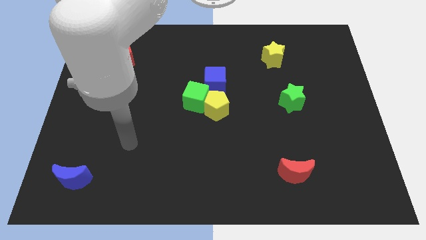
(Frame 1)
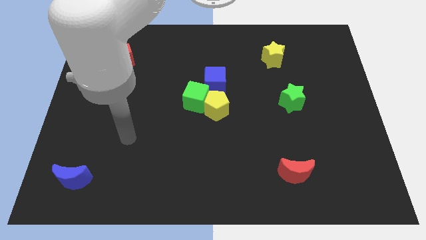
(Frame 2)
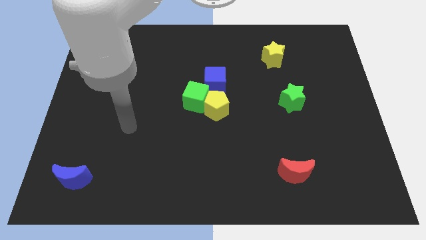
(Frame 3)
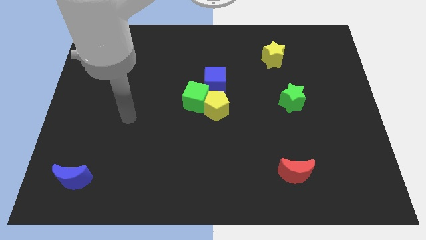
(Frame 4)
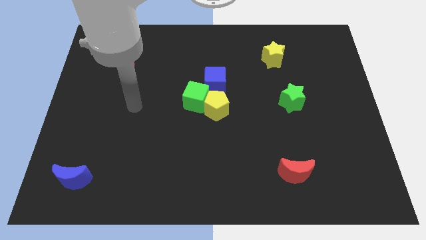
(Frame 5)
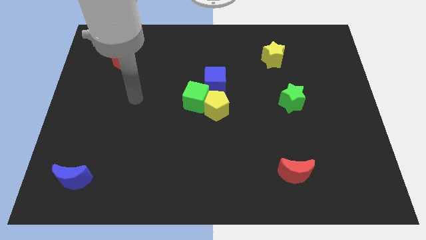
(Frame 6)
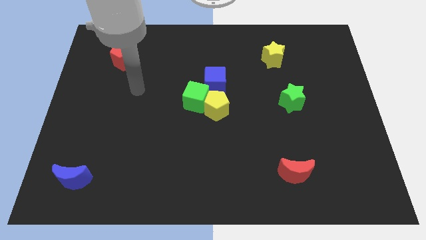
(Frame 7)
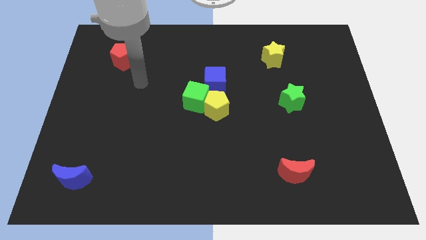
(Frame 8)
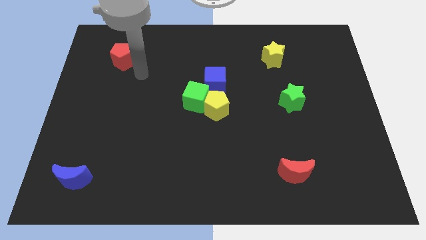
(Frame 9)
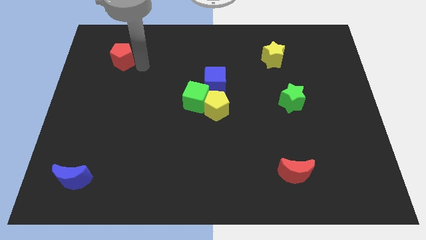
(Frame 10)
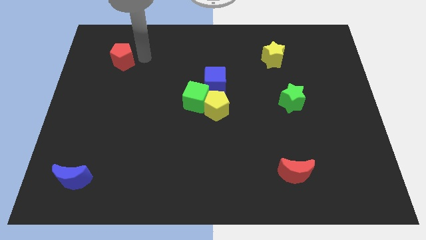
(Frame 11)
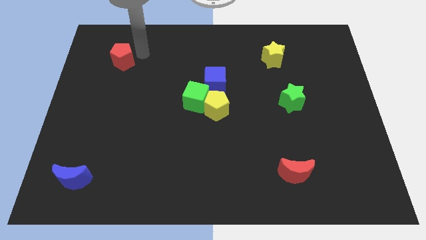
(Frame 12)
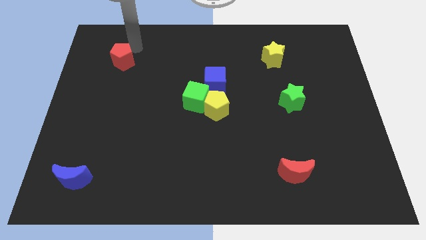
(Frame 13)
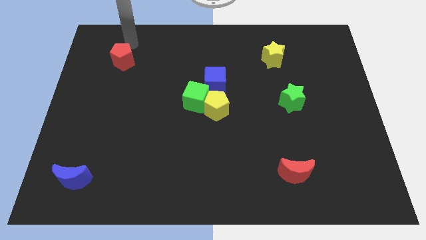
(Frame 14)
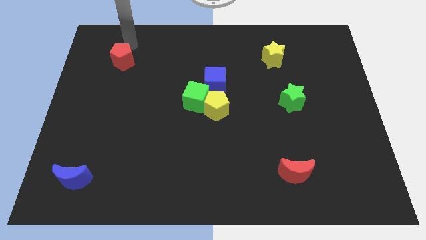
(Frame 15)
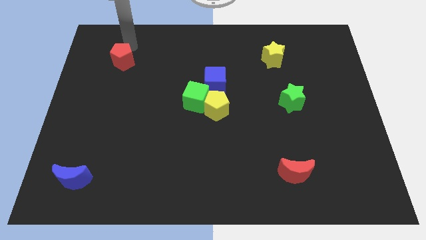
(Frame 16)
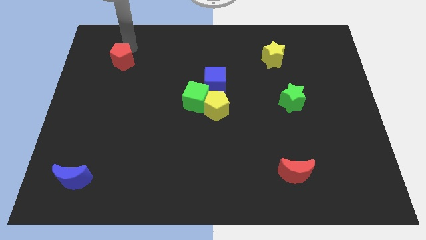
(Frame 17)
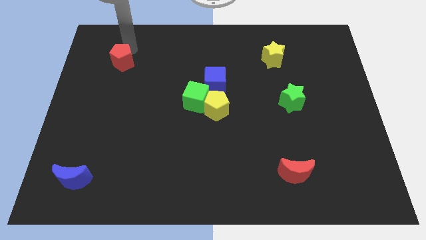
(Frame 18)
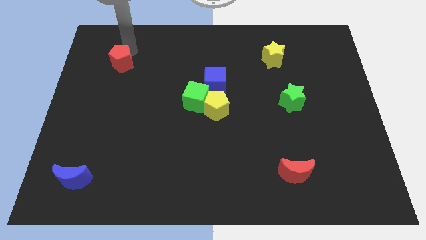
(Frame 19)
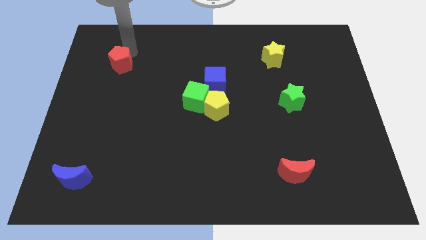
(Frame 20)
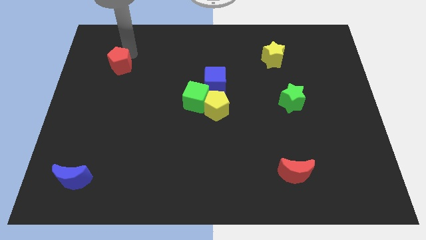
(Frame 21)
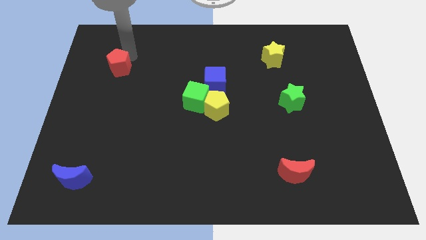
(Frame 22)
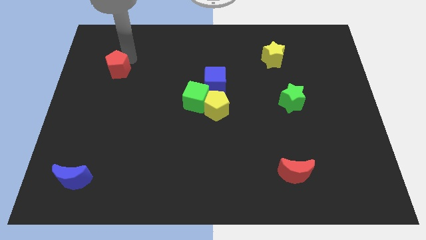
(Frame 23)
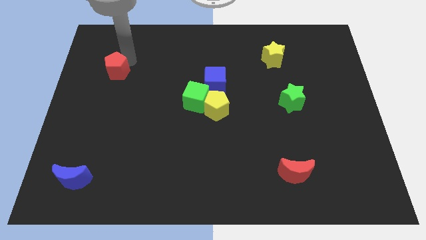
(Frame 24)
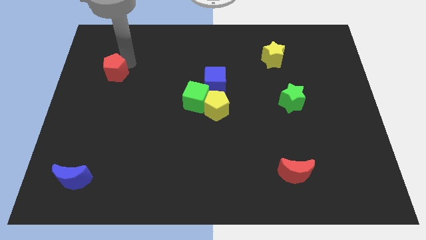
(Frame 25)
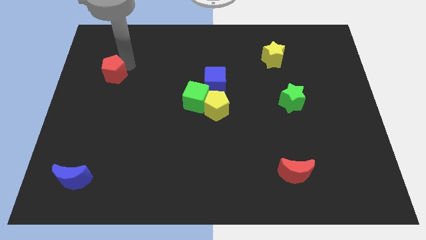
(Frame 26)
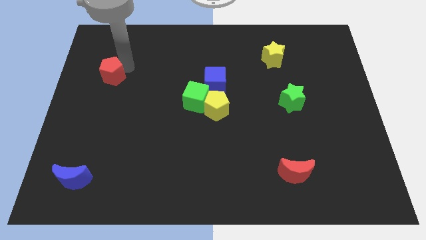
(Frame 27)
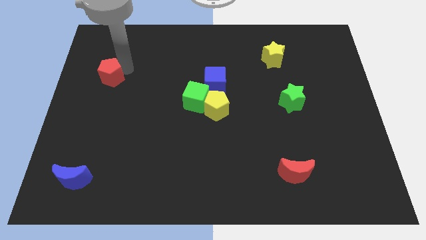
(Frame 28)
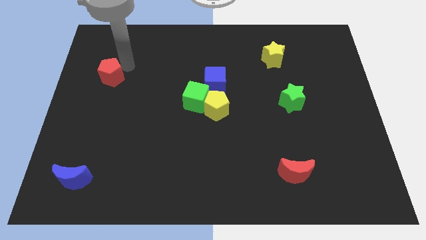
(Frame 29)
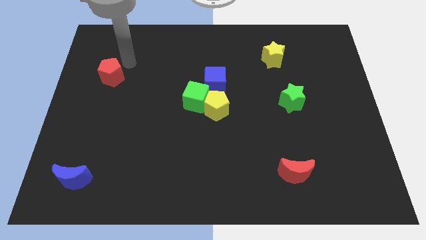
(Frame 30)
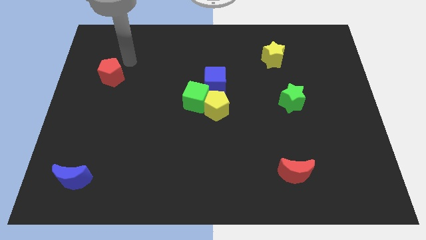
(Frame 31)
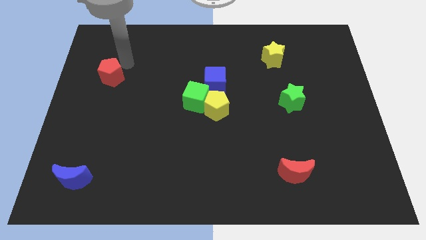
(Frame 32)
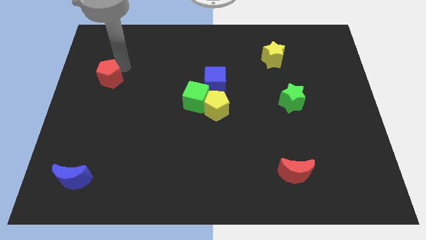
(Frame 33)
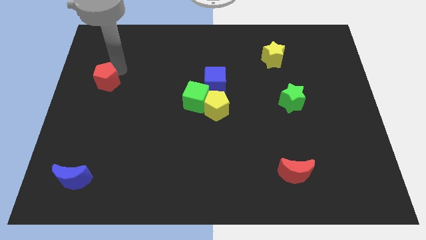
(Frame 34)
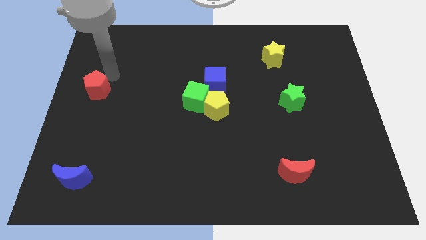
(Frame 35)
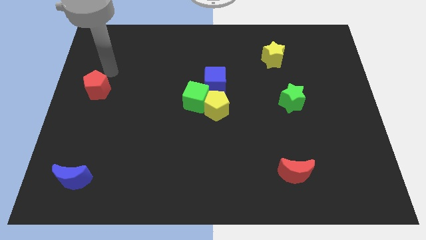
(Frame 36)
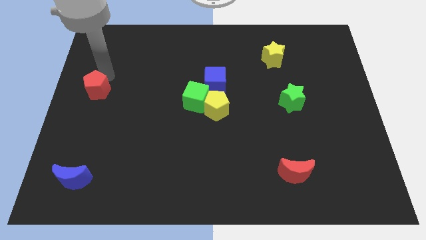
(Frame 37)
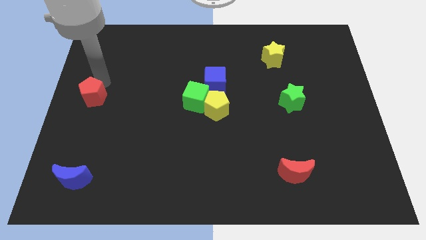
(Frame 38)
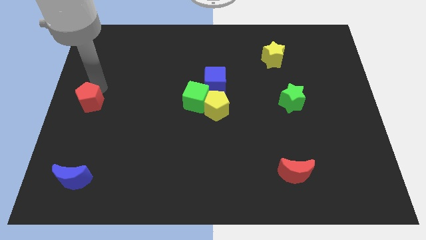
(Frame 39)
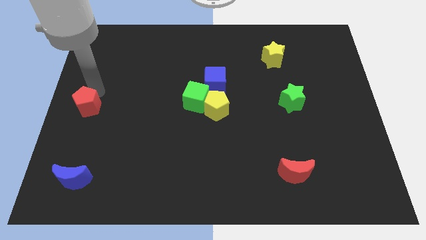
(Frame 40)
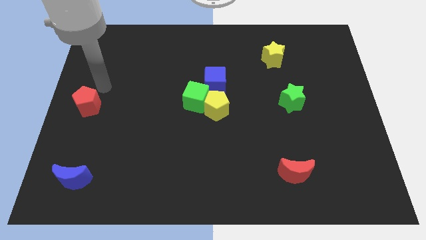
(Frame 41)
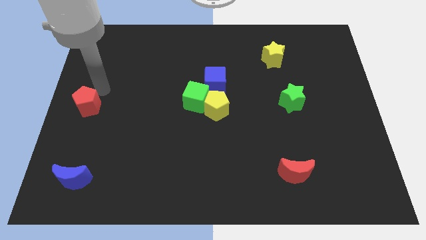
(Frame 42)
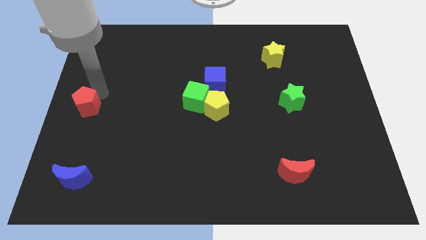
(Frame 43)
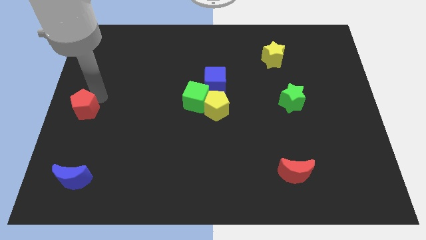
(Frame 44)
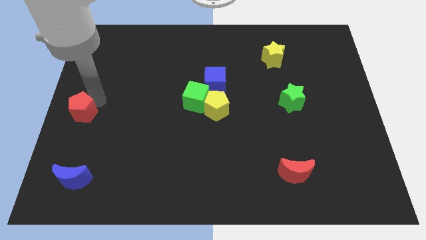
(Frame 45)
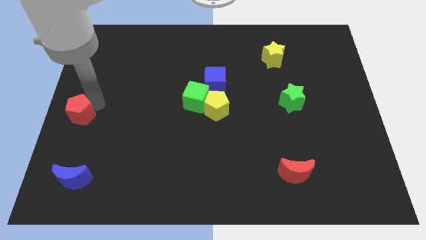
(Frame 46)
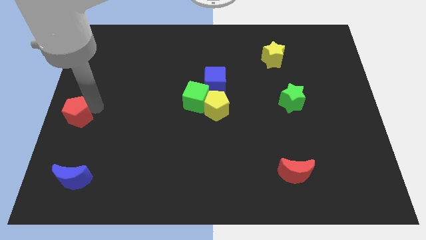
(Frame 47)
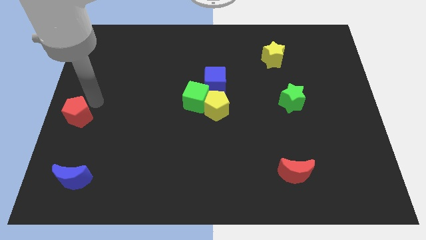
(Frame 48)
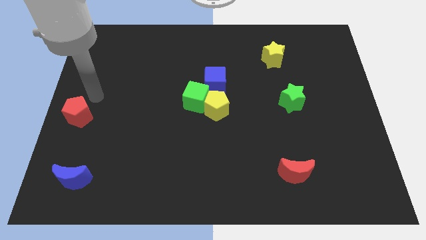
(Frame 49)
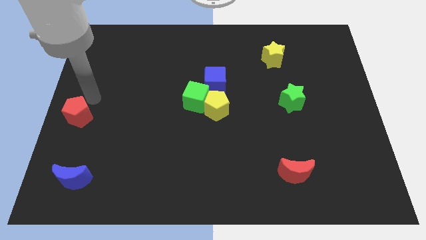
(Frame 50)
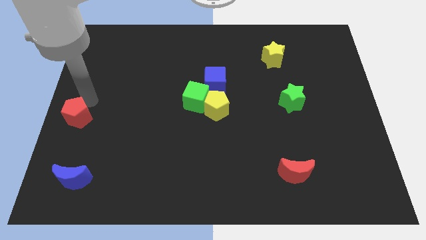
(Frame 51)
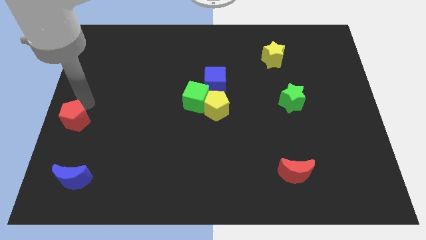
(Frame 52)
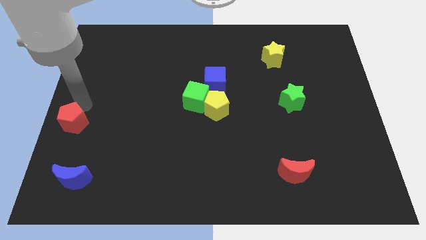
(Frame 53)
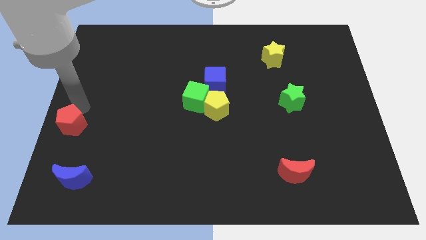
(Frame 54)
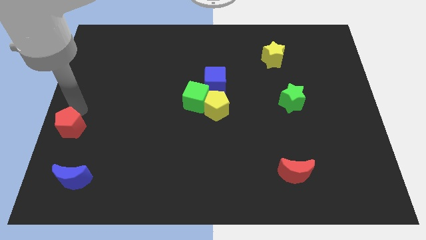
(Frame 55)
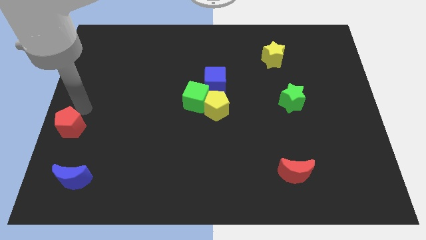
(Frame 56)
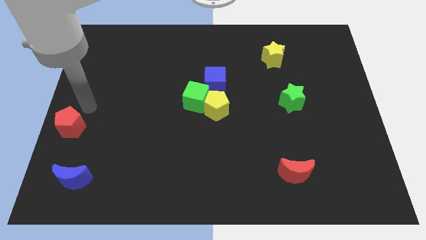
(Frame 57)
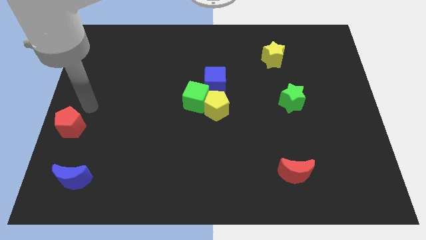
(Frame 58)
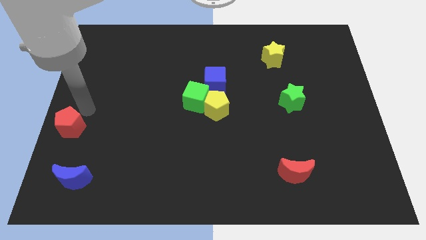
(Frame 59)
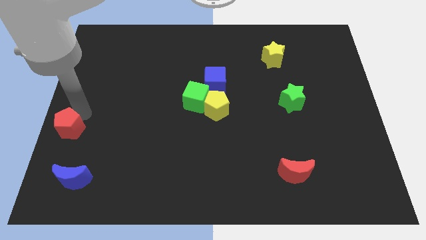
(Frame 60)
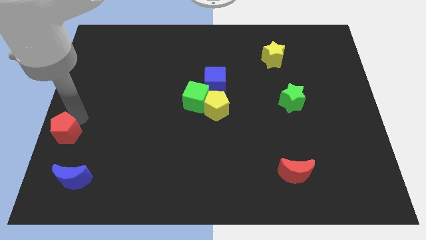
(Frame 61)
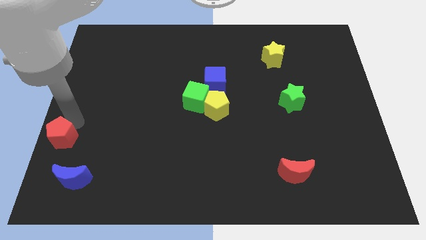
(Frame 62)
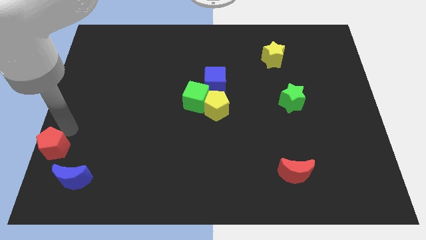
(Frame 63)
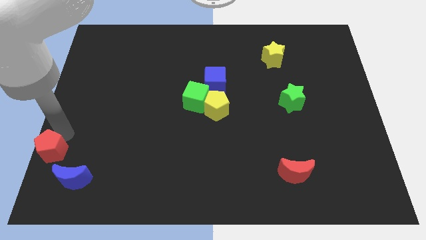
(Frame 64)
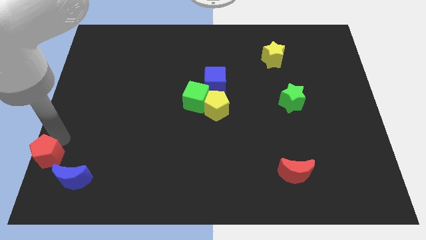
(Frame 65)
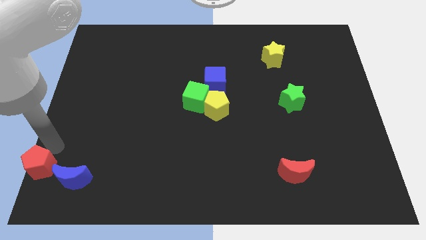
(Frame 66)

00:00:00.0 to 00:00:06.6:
put the red pentagon to the lower left corner

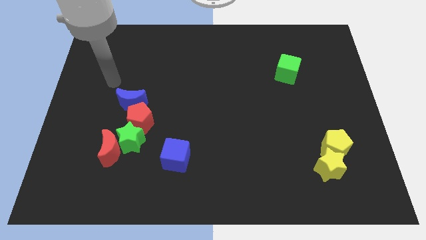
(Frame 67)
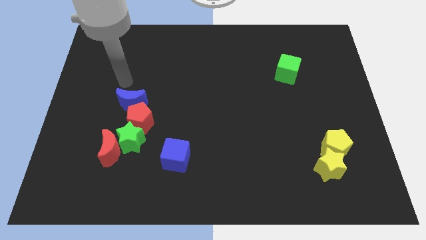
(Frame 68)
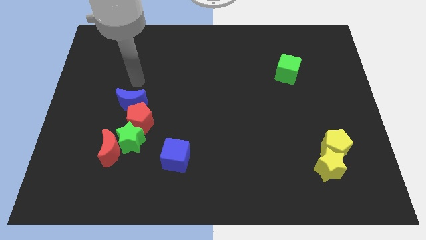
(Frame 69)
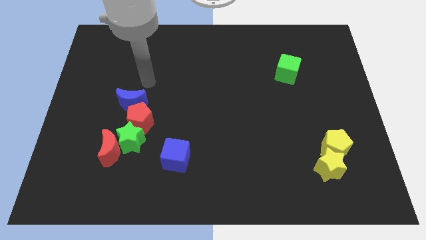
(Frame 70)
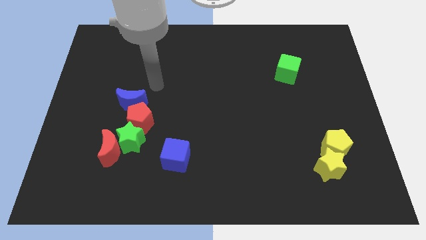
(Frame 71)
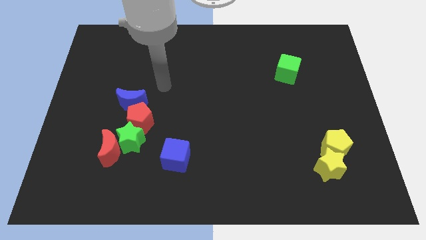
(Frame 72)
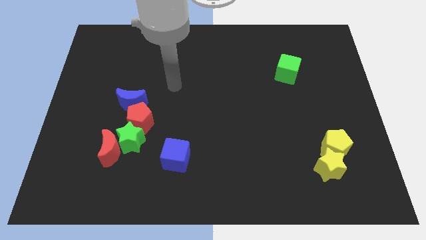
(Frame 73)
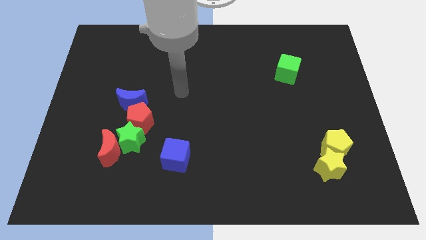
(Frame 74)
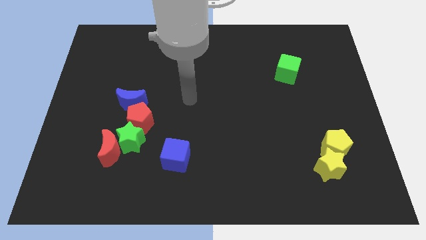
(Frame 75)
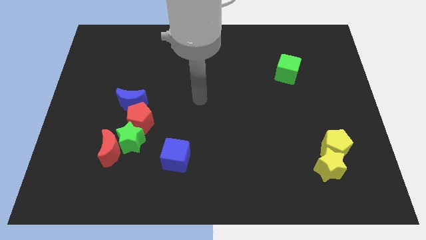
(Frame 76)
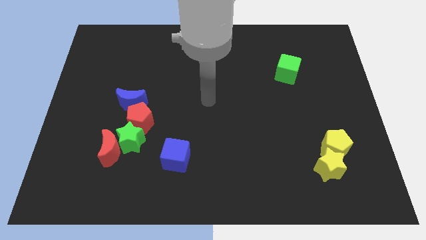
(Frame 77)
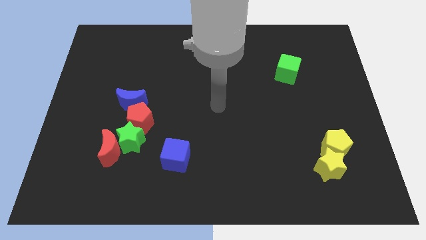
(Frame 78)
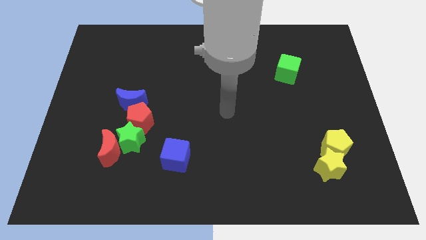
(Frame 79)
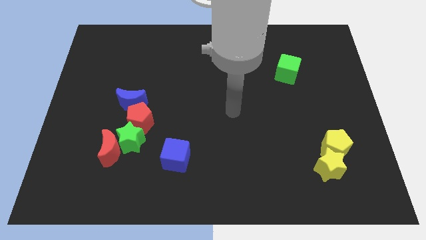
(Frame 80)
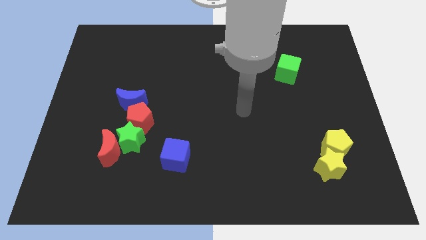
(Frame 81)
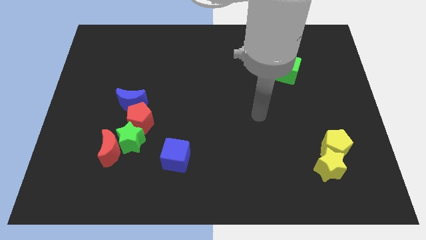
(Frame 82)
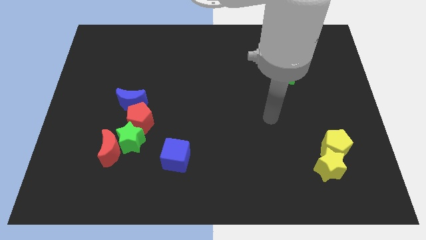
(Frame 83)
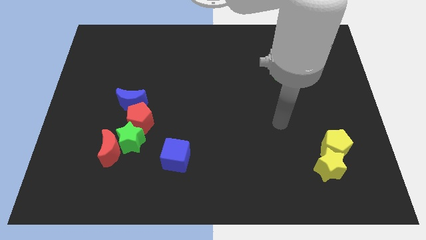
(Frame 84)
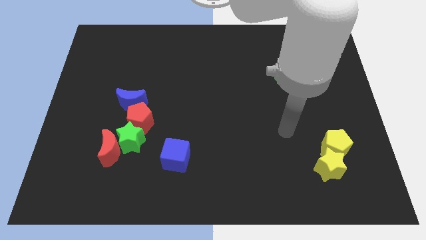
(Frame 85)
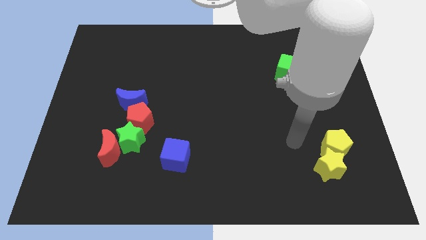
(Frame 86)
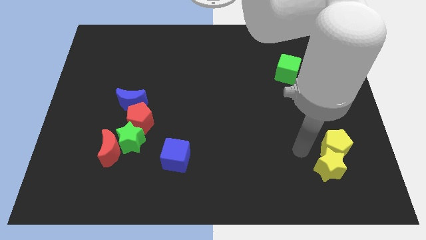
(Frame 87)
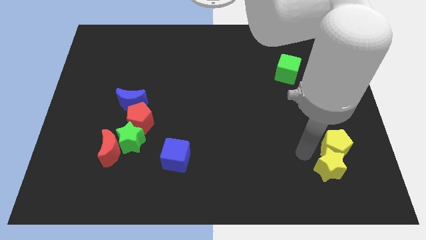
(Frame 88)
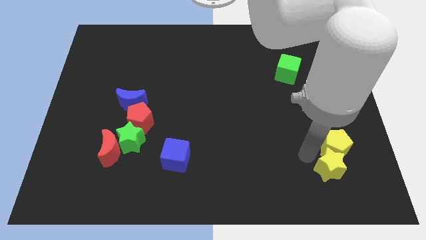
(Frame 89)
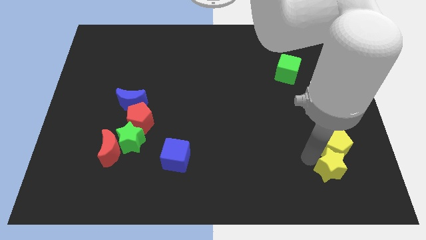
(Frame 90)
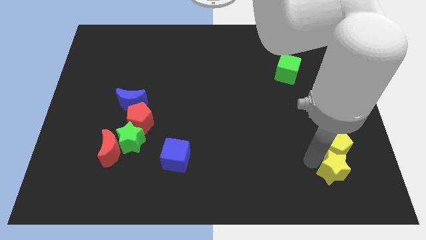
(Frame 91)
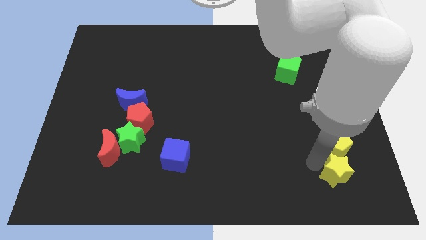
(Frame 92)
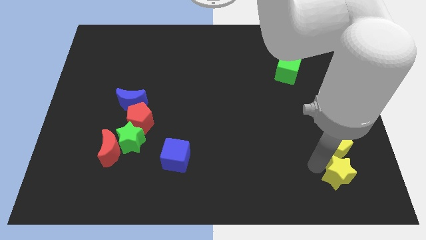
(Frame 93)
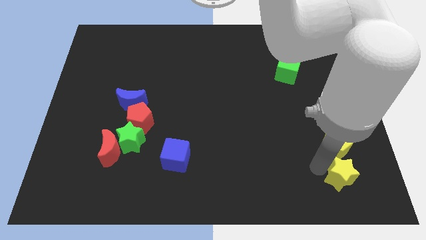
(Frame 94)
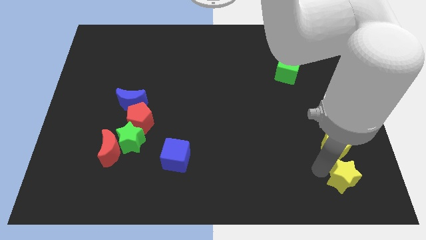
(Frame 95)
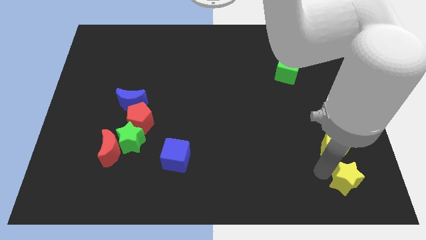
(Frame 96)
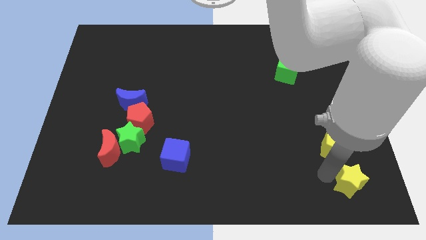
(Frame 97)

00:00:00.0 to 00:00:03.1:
move the yellow star to the bottom right corner
